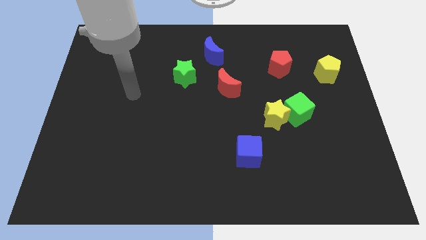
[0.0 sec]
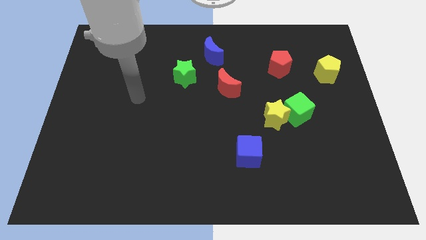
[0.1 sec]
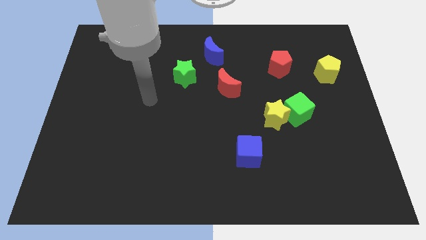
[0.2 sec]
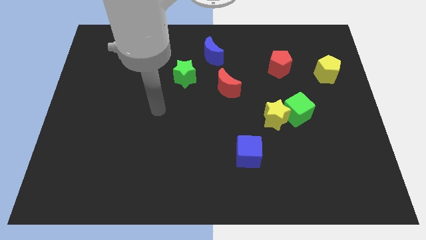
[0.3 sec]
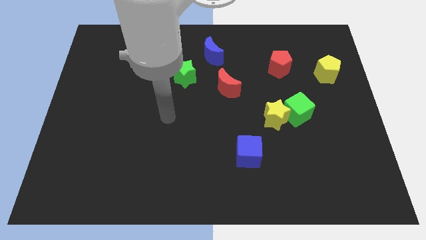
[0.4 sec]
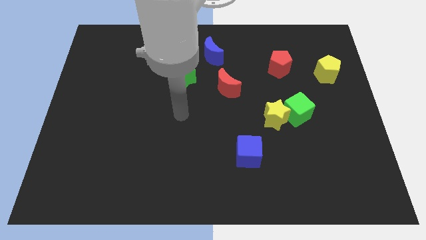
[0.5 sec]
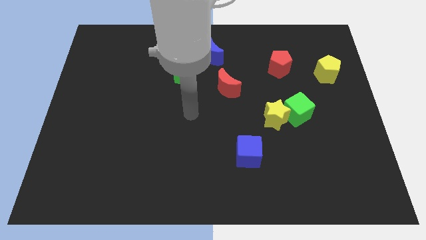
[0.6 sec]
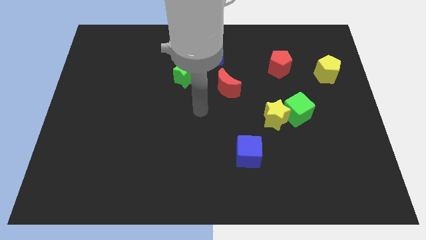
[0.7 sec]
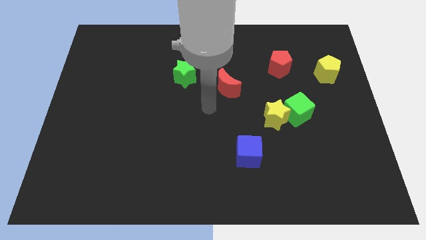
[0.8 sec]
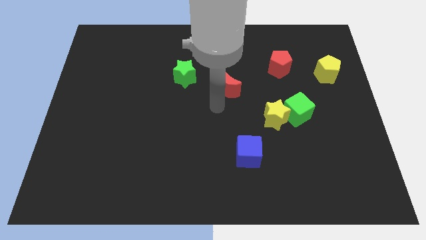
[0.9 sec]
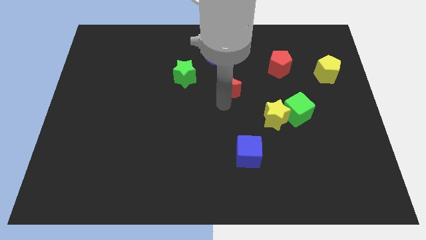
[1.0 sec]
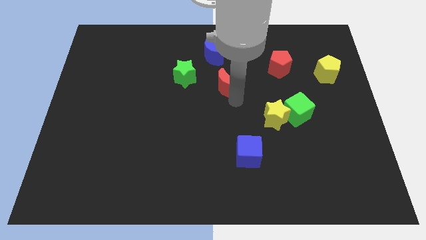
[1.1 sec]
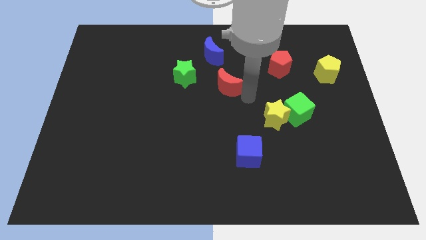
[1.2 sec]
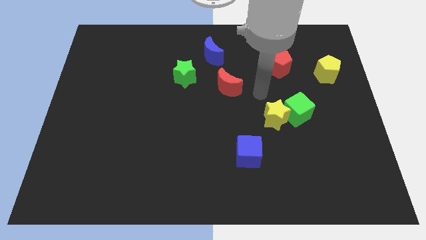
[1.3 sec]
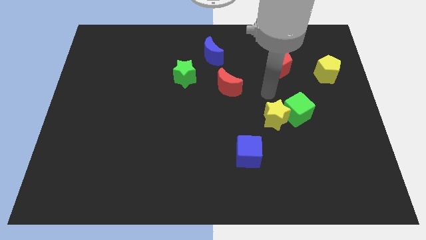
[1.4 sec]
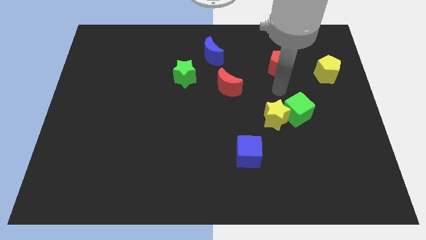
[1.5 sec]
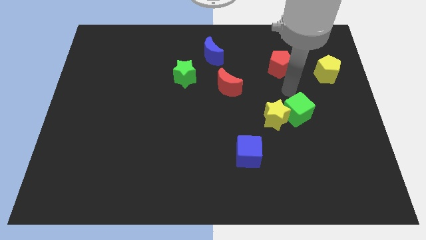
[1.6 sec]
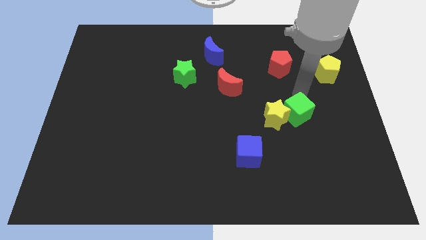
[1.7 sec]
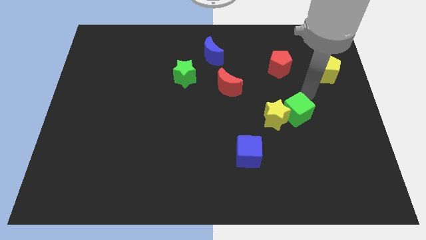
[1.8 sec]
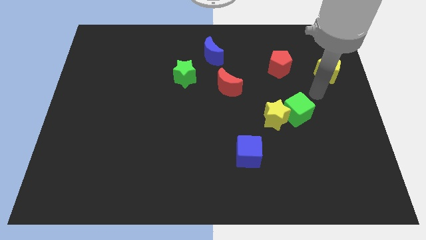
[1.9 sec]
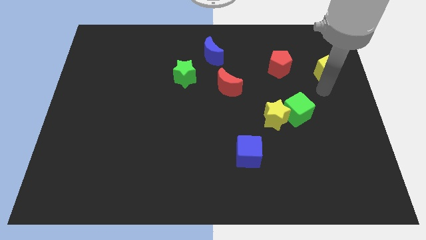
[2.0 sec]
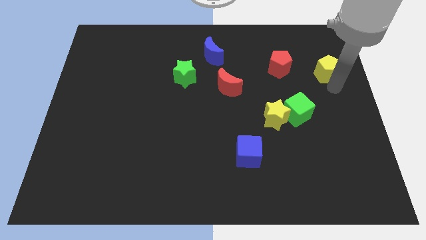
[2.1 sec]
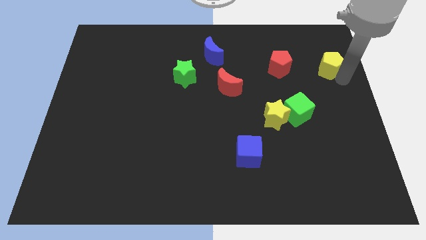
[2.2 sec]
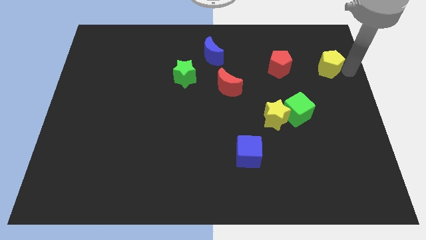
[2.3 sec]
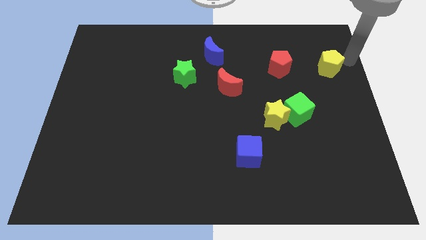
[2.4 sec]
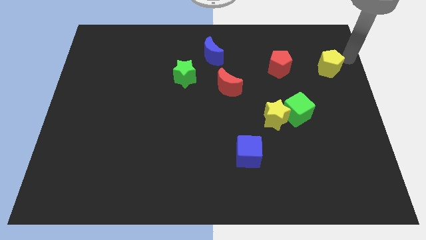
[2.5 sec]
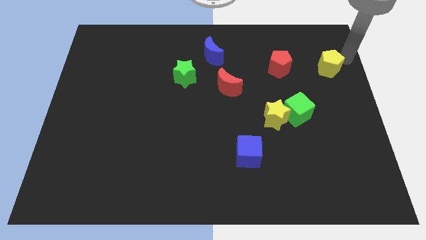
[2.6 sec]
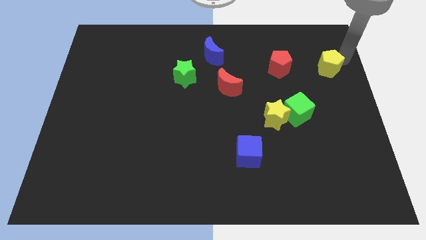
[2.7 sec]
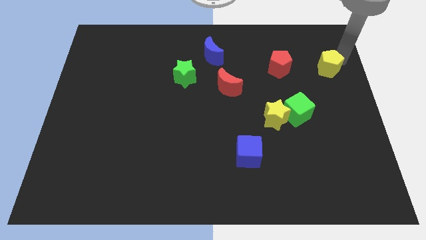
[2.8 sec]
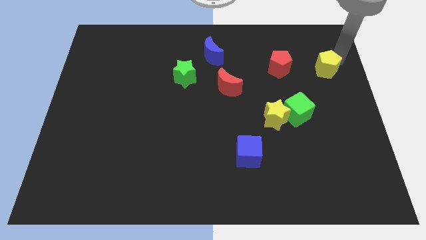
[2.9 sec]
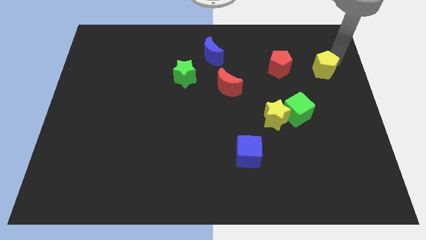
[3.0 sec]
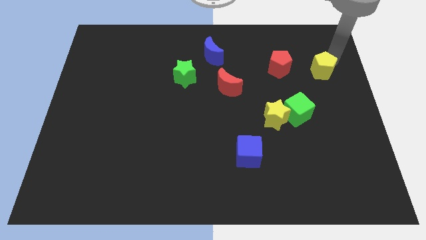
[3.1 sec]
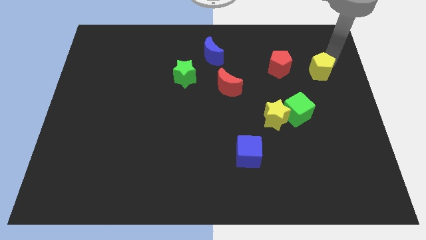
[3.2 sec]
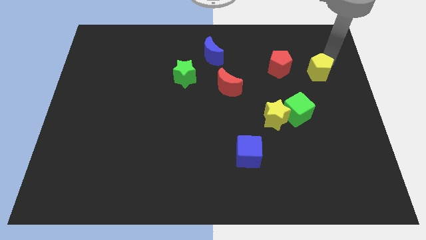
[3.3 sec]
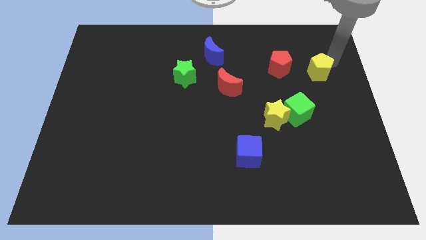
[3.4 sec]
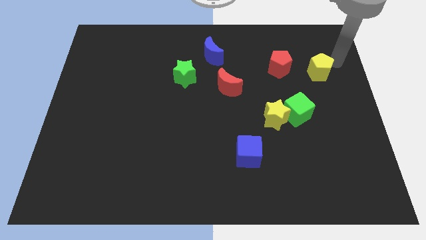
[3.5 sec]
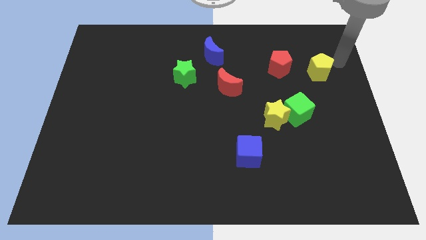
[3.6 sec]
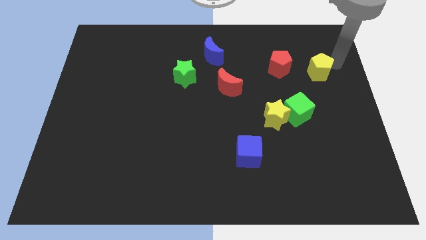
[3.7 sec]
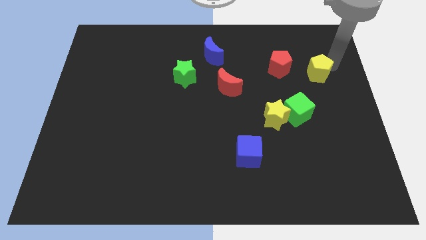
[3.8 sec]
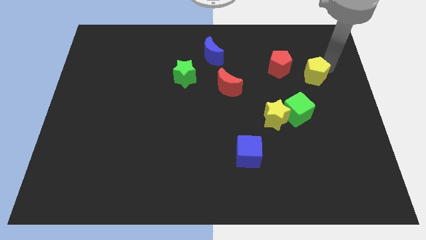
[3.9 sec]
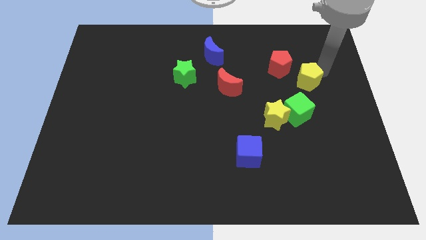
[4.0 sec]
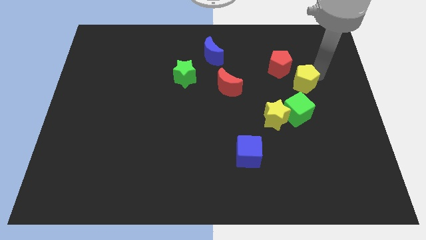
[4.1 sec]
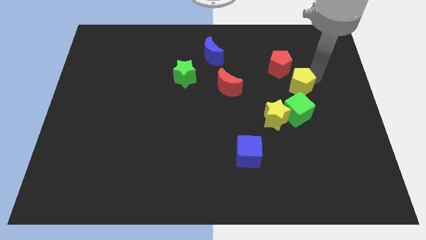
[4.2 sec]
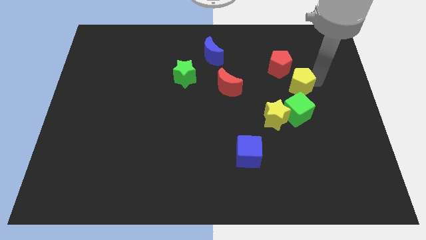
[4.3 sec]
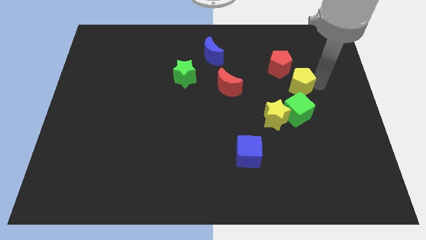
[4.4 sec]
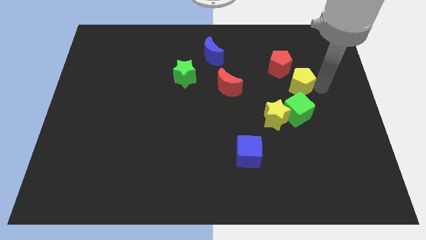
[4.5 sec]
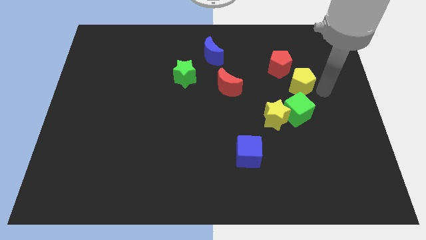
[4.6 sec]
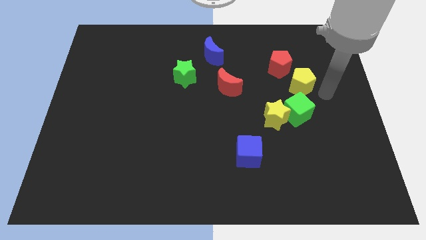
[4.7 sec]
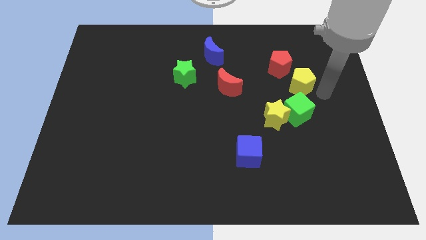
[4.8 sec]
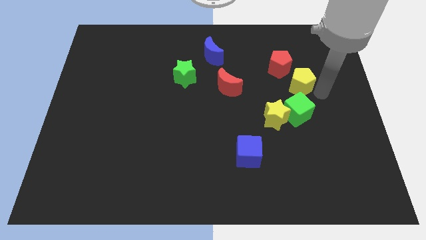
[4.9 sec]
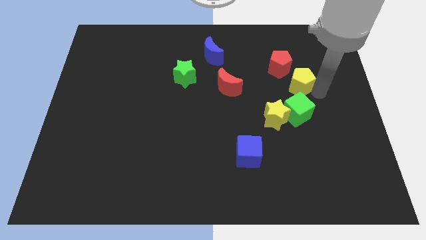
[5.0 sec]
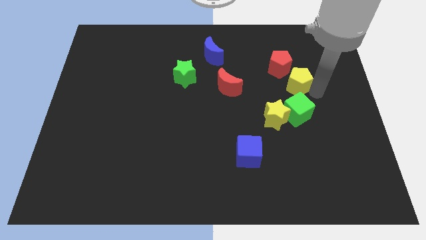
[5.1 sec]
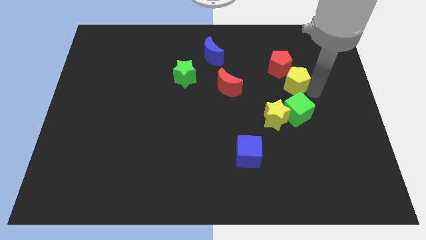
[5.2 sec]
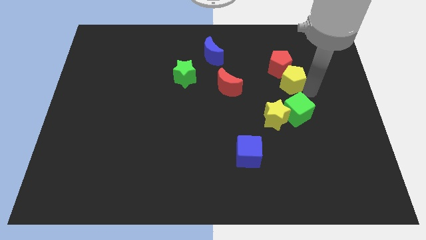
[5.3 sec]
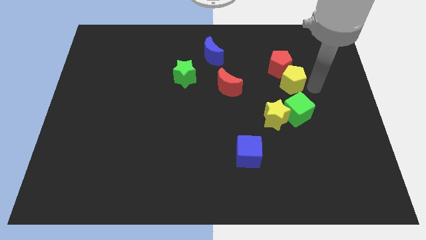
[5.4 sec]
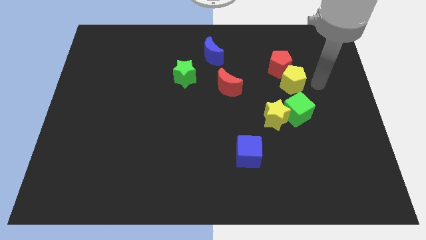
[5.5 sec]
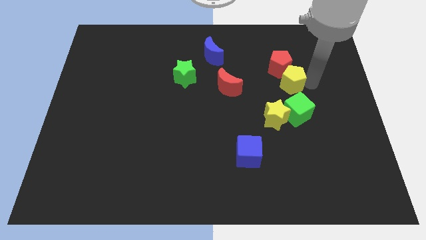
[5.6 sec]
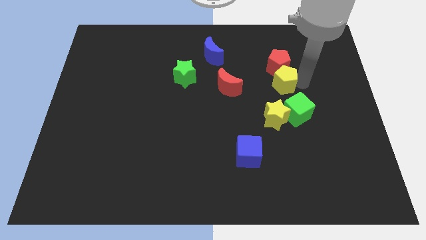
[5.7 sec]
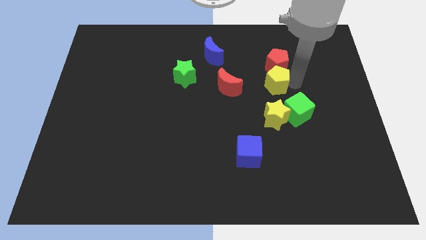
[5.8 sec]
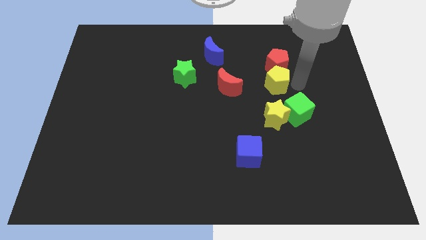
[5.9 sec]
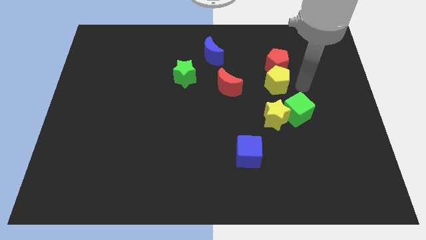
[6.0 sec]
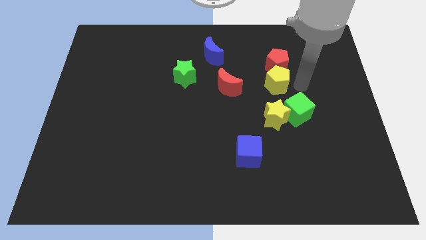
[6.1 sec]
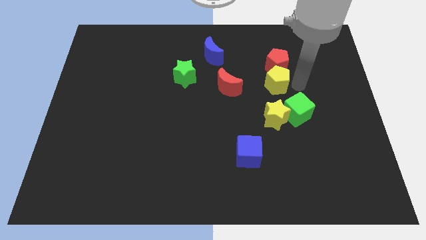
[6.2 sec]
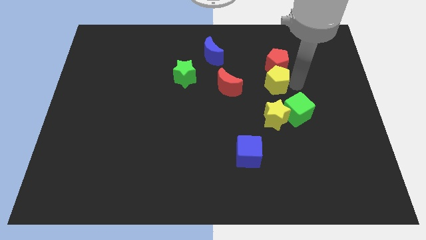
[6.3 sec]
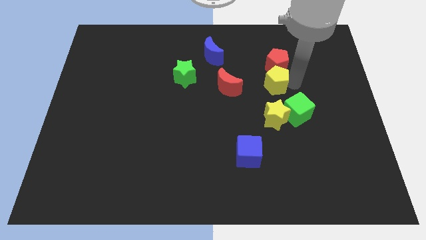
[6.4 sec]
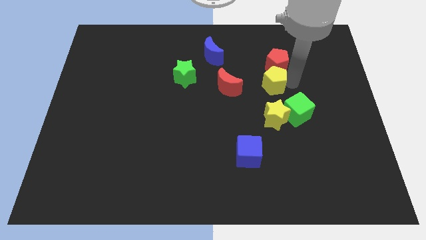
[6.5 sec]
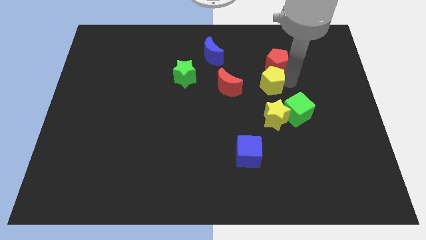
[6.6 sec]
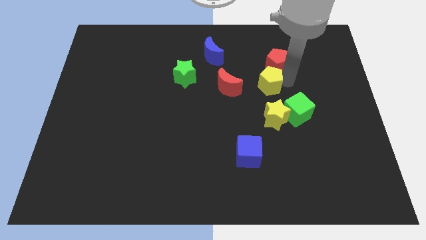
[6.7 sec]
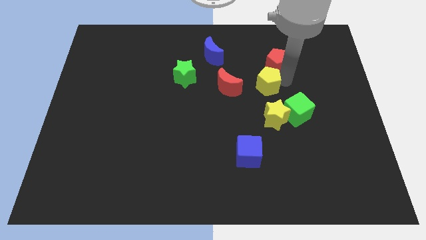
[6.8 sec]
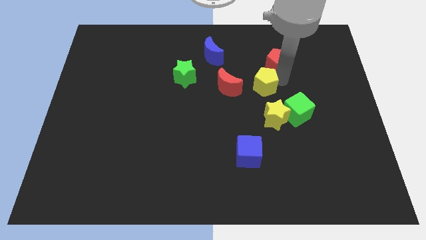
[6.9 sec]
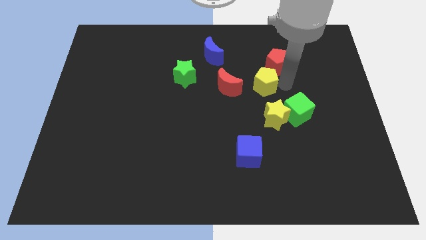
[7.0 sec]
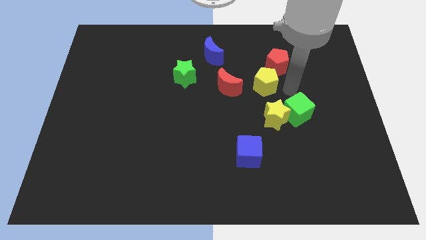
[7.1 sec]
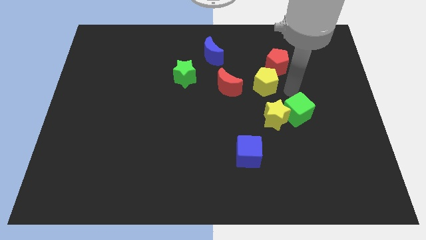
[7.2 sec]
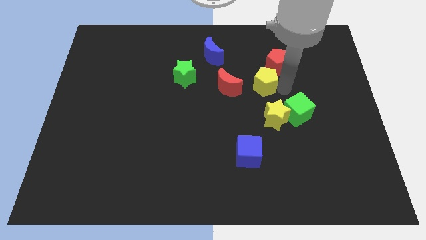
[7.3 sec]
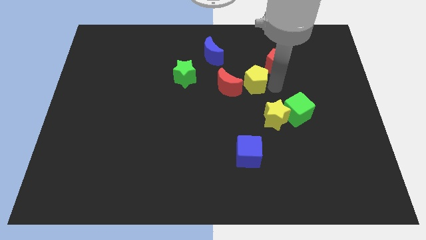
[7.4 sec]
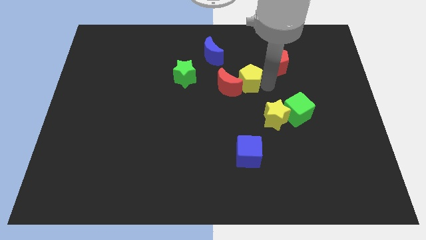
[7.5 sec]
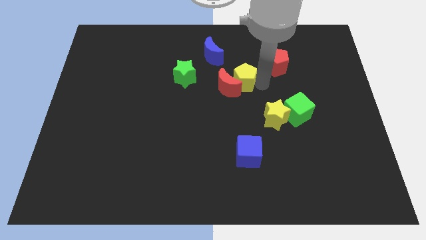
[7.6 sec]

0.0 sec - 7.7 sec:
move the yellow pentagon left
